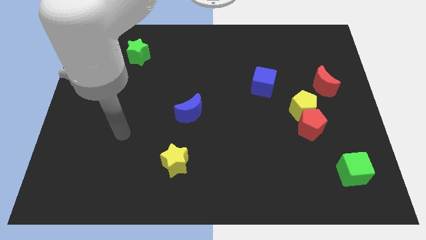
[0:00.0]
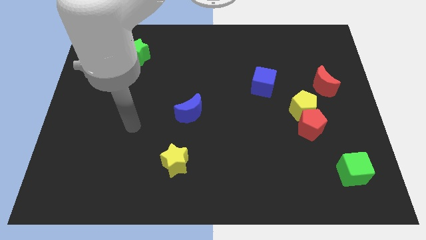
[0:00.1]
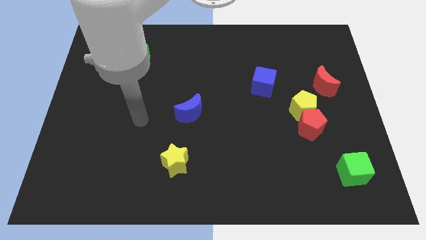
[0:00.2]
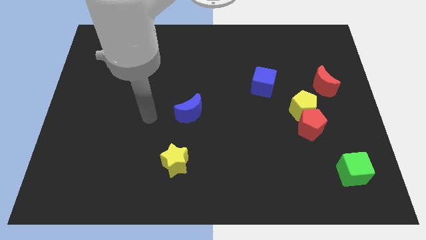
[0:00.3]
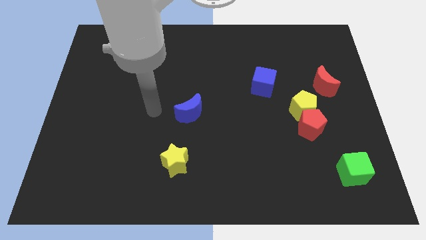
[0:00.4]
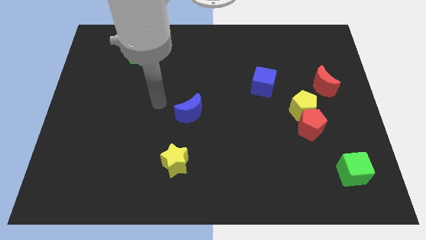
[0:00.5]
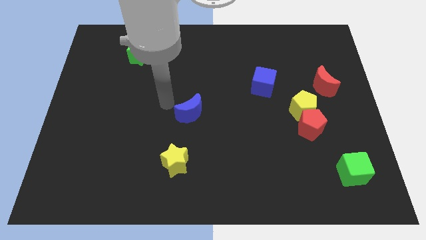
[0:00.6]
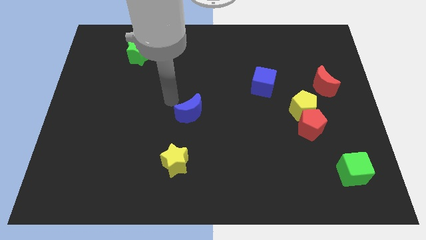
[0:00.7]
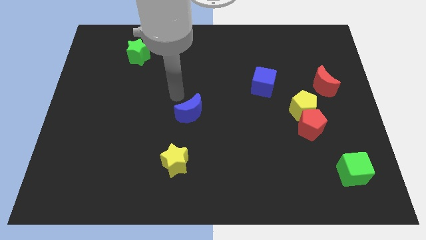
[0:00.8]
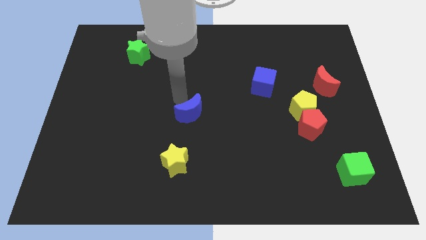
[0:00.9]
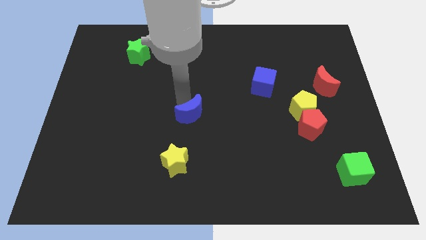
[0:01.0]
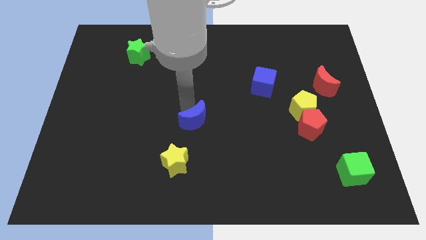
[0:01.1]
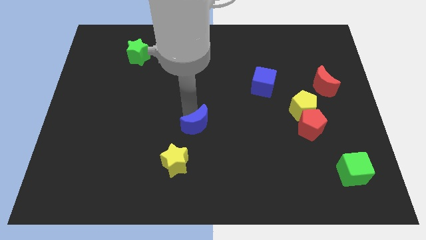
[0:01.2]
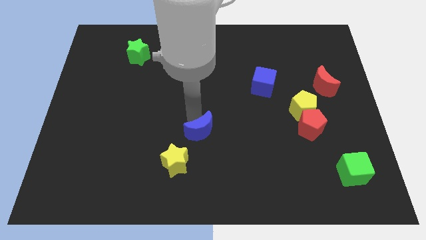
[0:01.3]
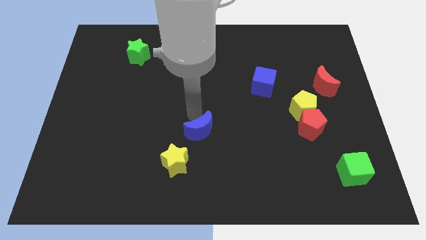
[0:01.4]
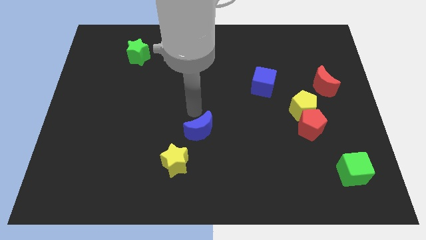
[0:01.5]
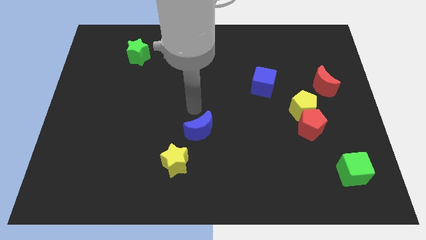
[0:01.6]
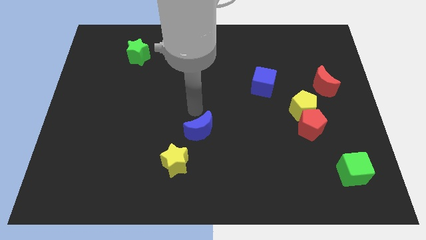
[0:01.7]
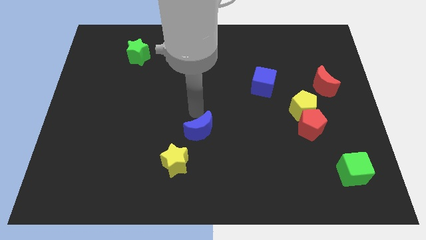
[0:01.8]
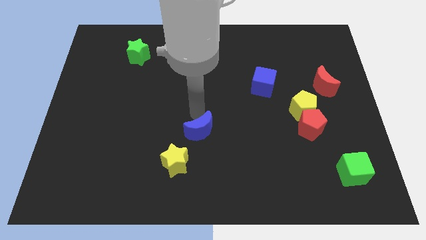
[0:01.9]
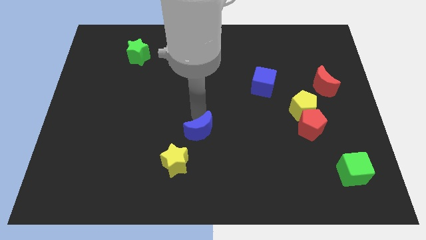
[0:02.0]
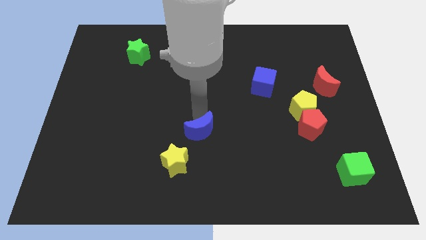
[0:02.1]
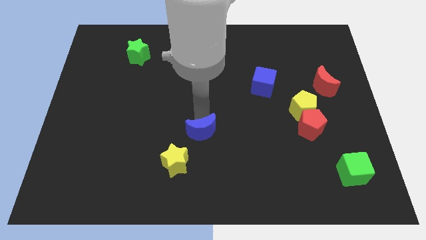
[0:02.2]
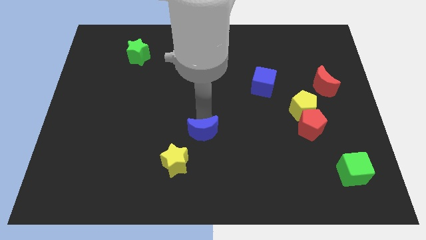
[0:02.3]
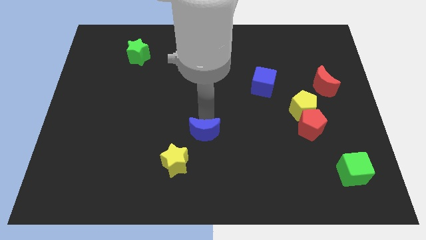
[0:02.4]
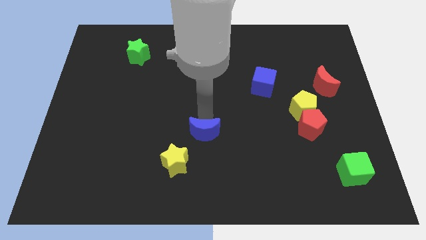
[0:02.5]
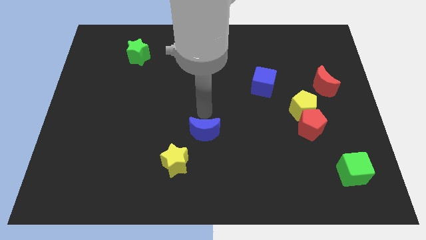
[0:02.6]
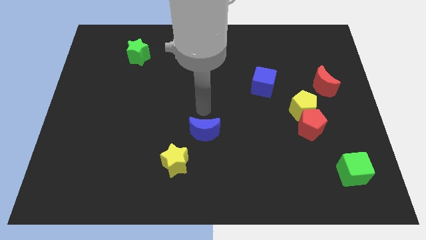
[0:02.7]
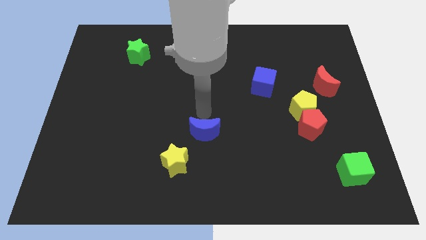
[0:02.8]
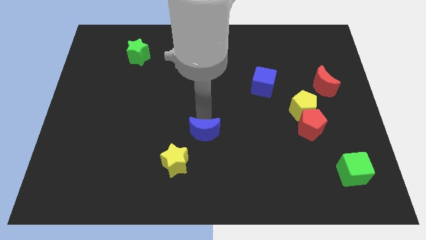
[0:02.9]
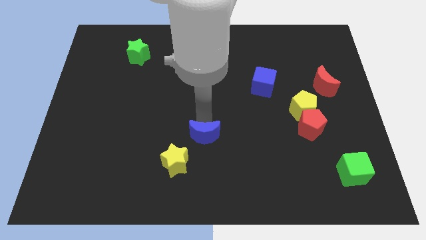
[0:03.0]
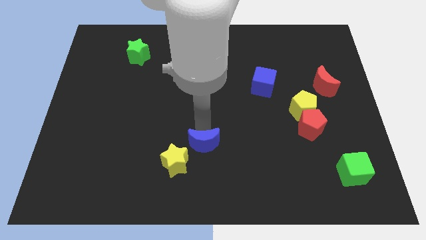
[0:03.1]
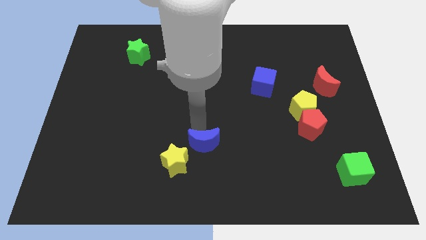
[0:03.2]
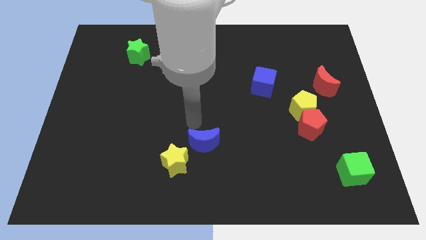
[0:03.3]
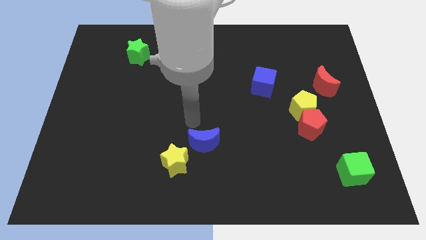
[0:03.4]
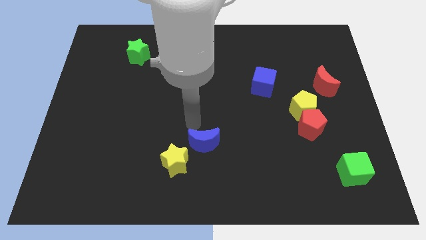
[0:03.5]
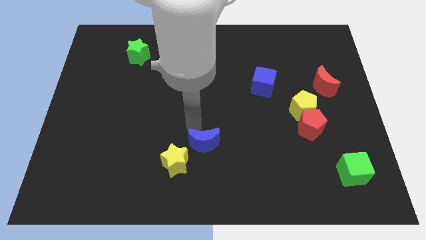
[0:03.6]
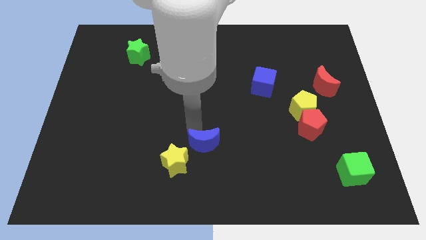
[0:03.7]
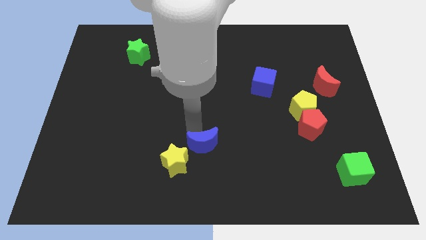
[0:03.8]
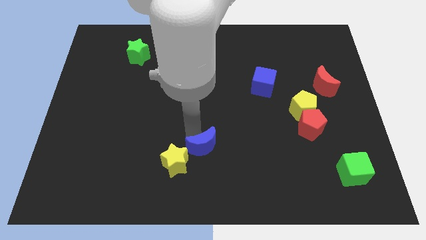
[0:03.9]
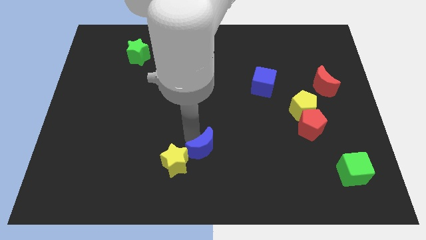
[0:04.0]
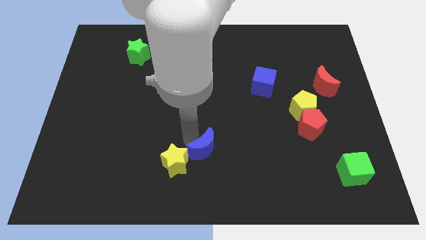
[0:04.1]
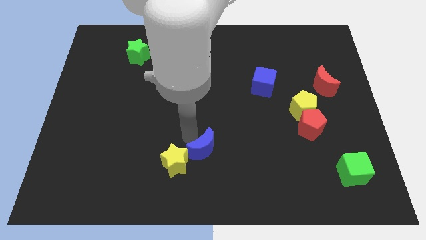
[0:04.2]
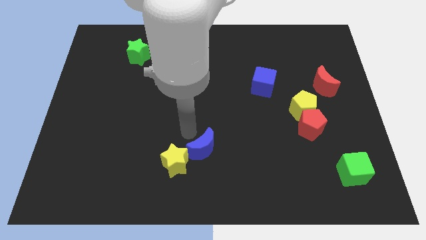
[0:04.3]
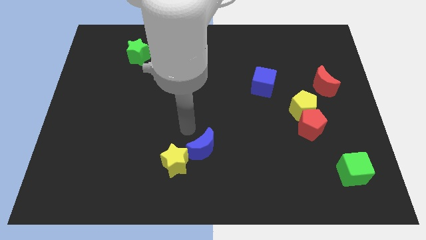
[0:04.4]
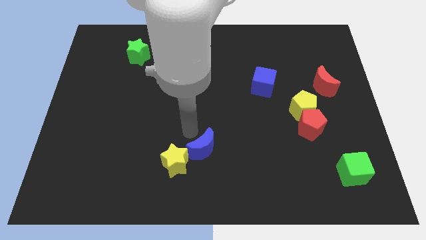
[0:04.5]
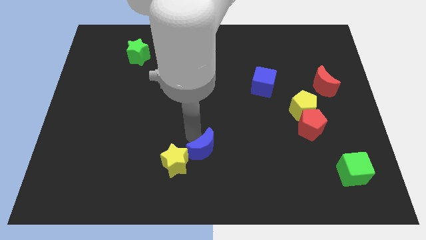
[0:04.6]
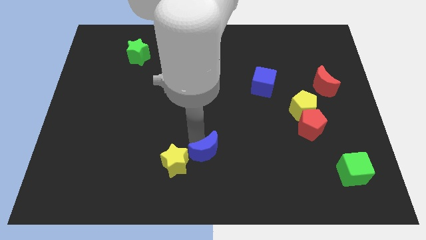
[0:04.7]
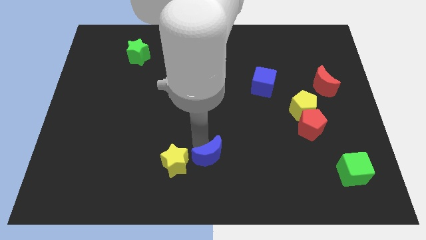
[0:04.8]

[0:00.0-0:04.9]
put the blue moon to the bottom side

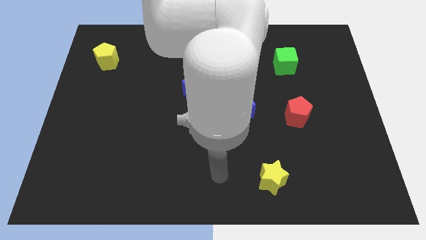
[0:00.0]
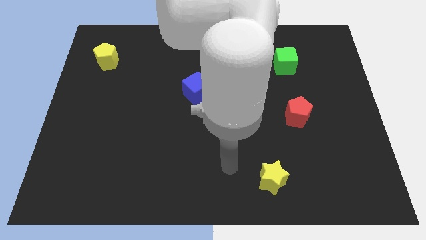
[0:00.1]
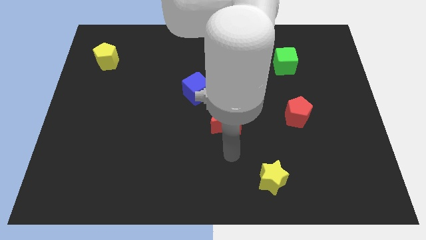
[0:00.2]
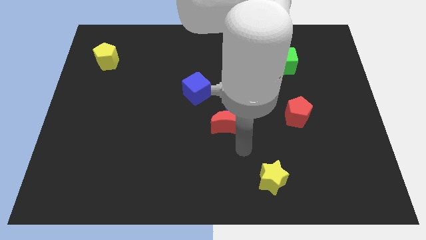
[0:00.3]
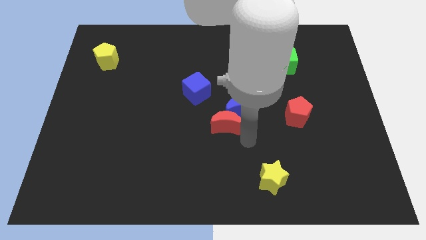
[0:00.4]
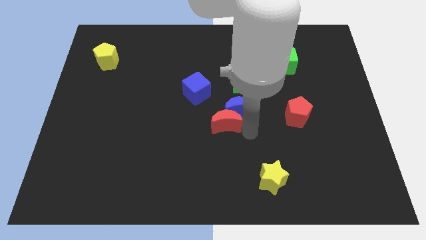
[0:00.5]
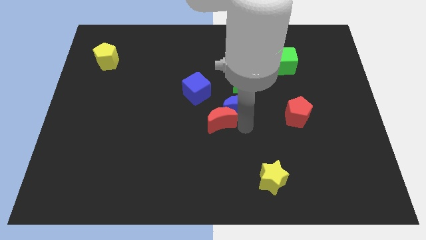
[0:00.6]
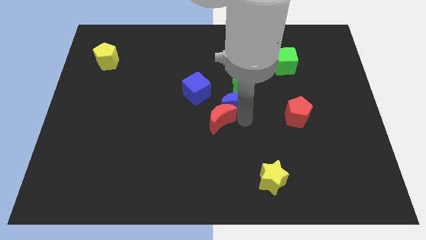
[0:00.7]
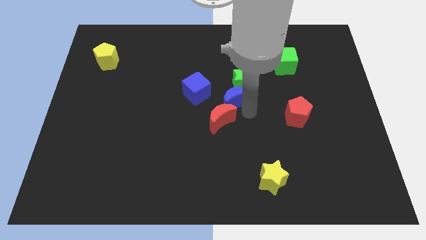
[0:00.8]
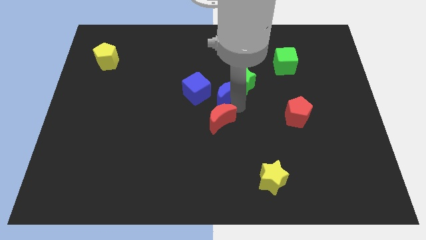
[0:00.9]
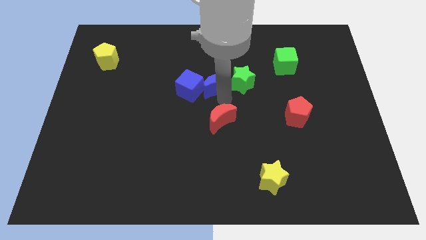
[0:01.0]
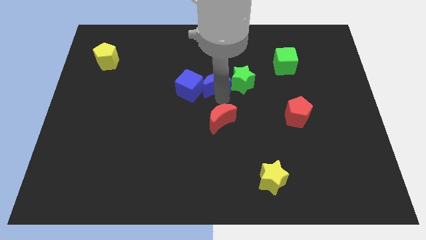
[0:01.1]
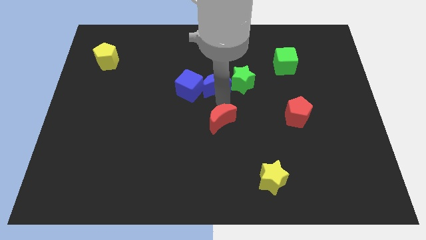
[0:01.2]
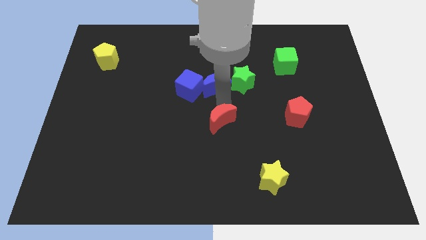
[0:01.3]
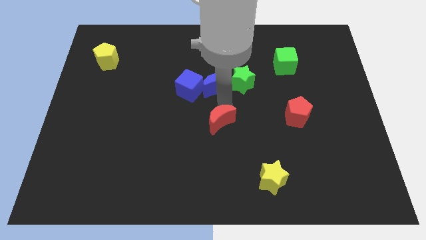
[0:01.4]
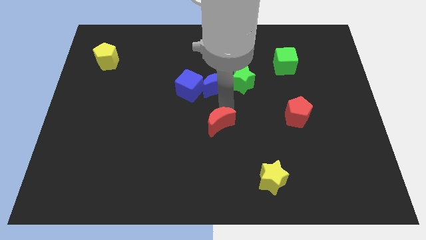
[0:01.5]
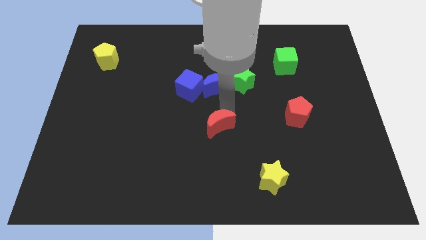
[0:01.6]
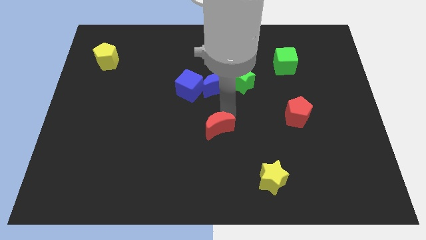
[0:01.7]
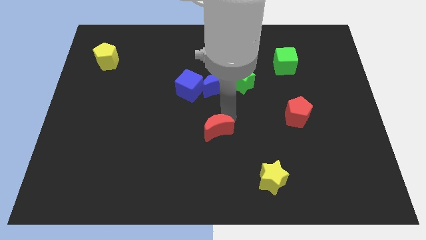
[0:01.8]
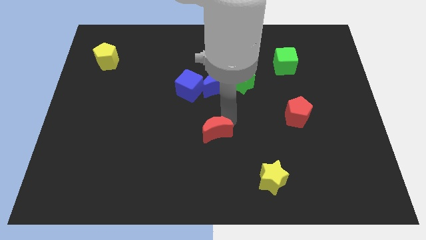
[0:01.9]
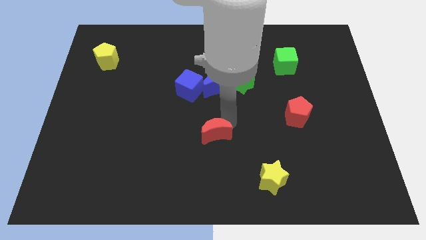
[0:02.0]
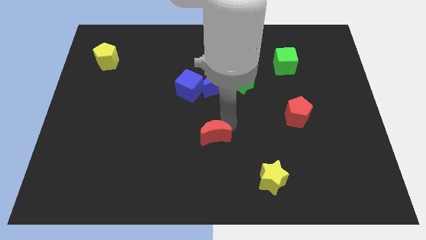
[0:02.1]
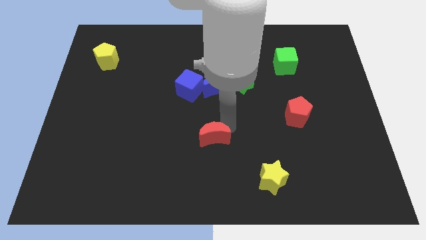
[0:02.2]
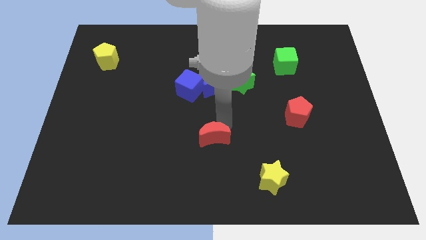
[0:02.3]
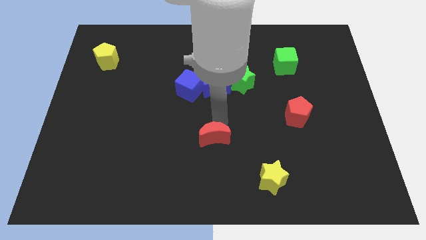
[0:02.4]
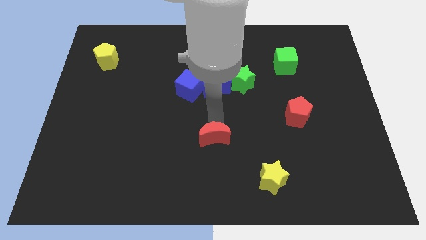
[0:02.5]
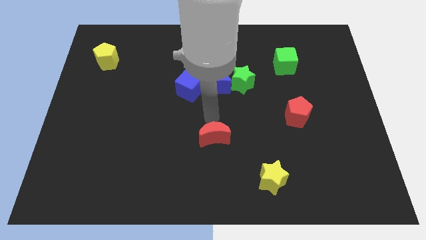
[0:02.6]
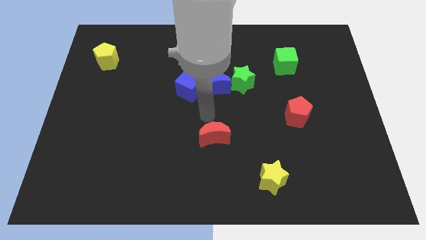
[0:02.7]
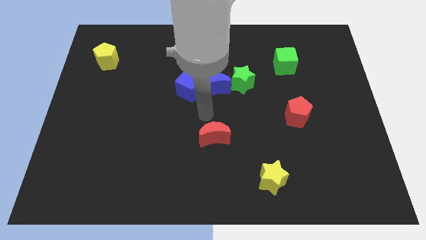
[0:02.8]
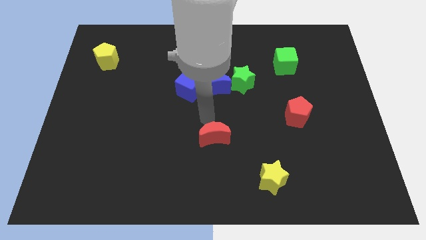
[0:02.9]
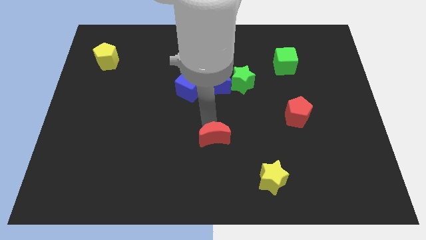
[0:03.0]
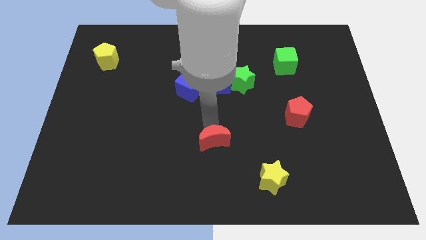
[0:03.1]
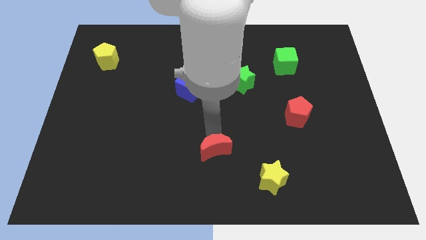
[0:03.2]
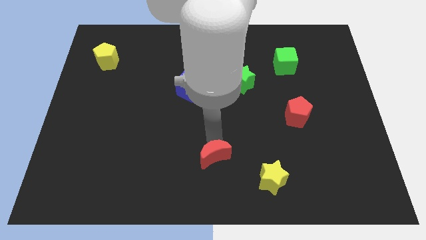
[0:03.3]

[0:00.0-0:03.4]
move the red moon to the bottom
